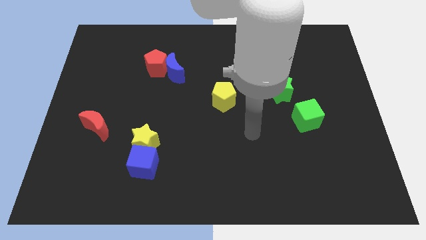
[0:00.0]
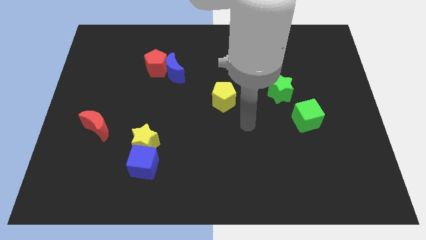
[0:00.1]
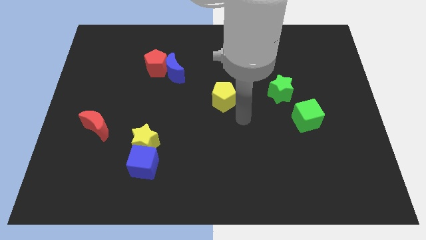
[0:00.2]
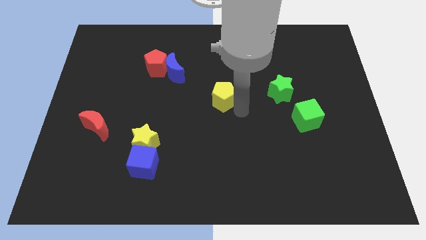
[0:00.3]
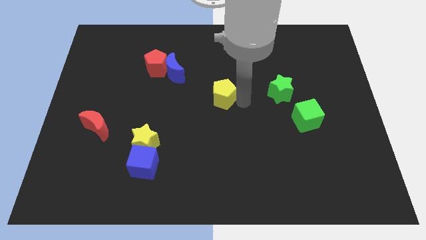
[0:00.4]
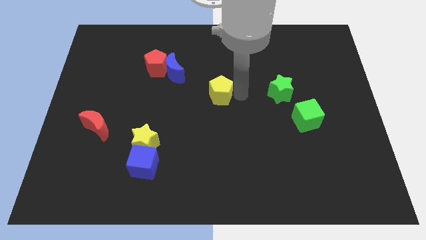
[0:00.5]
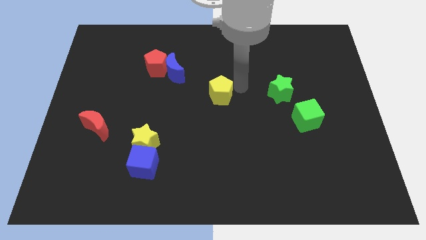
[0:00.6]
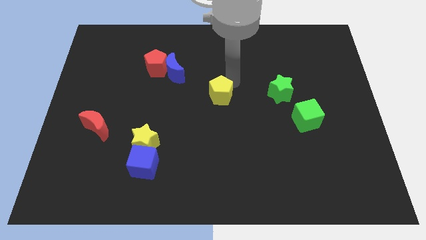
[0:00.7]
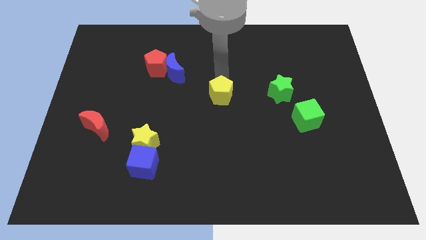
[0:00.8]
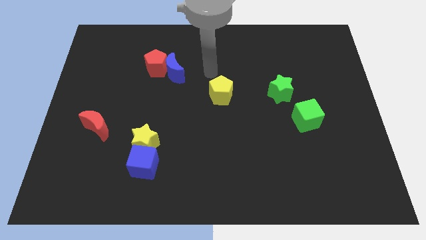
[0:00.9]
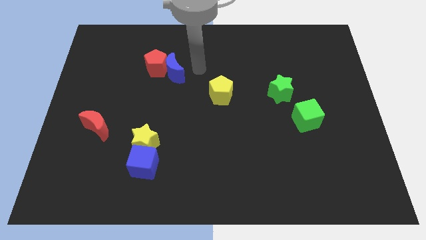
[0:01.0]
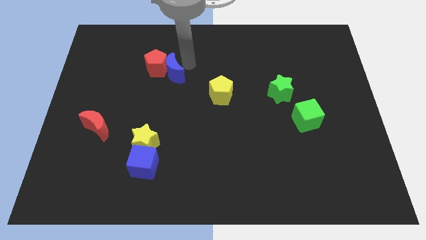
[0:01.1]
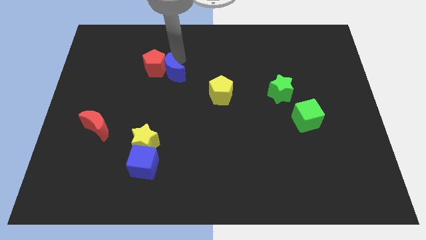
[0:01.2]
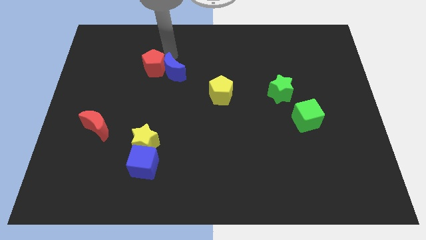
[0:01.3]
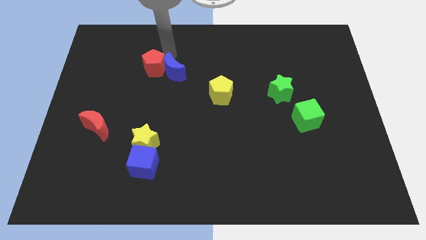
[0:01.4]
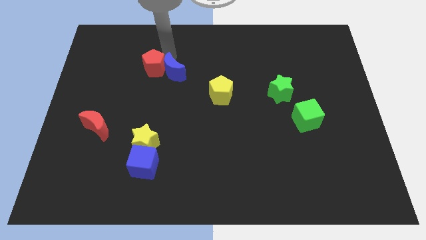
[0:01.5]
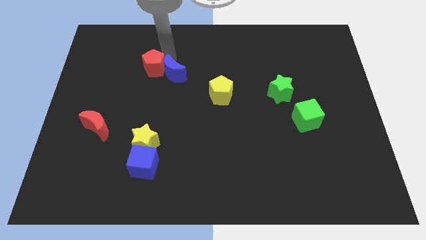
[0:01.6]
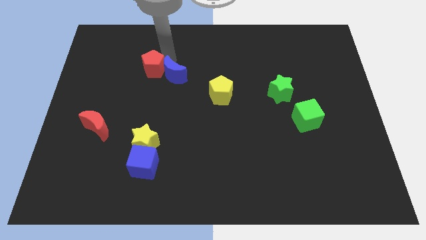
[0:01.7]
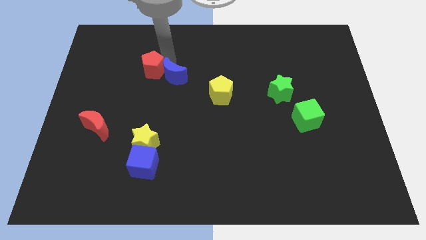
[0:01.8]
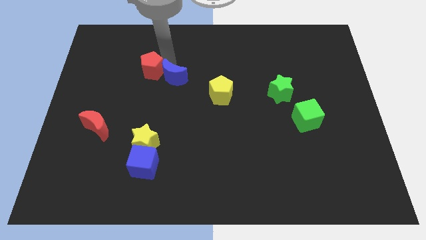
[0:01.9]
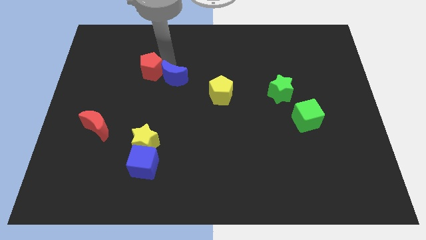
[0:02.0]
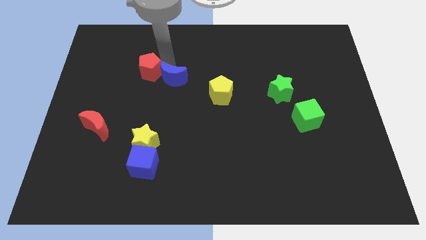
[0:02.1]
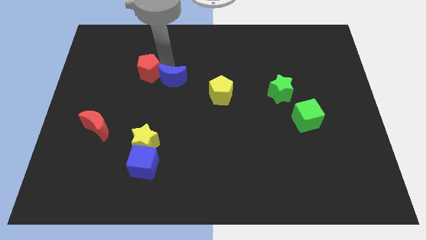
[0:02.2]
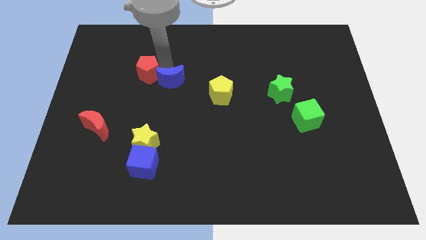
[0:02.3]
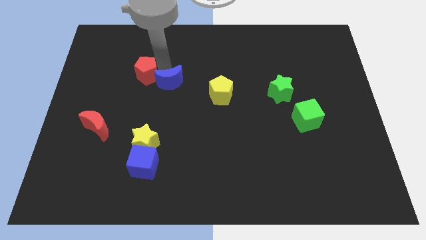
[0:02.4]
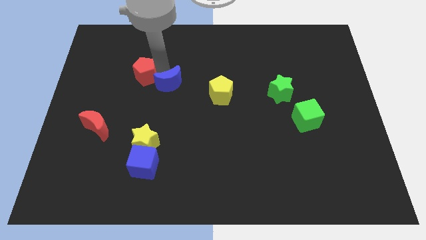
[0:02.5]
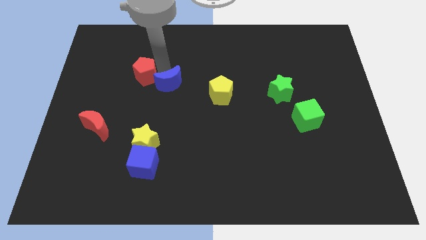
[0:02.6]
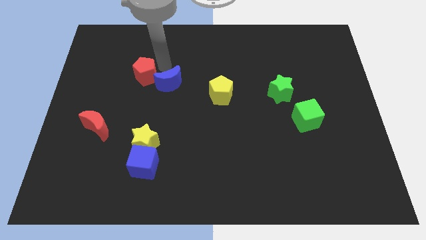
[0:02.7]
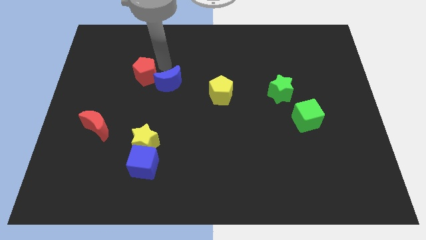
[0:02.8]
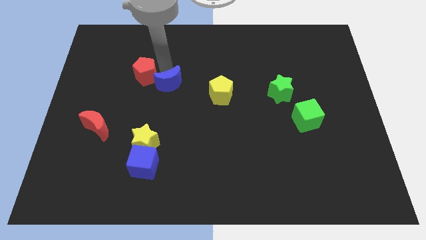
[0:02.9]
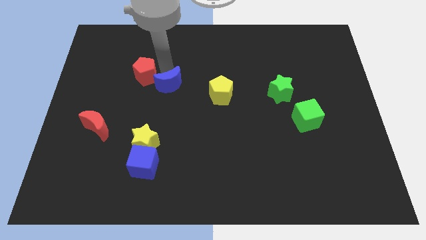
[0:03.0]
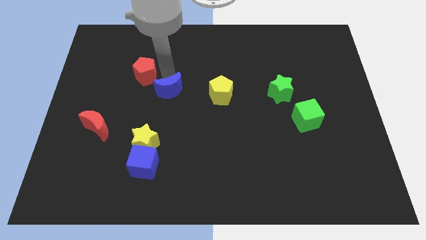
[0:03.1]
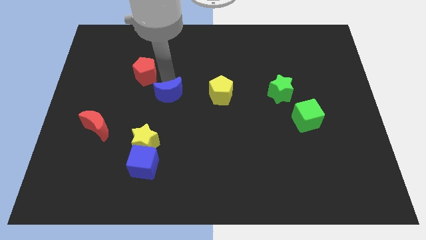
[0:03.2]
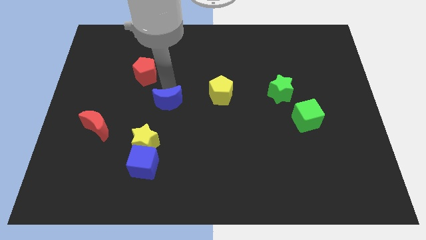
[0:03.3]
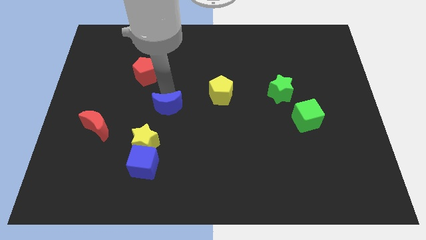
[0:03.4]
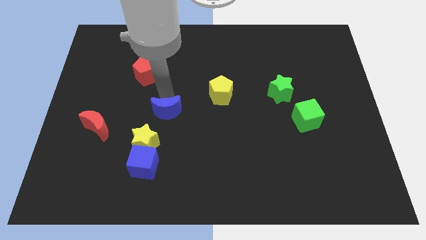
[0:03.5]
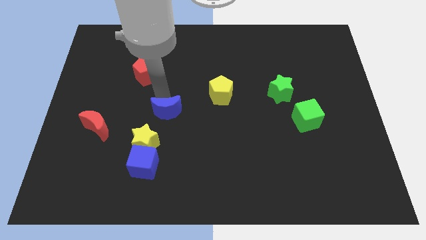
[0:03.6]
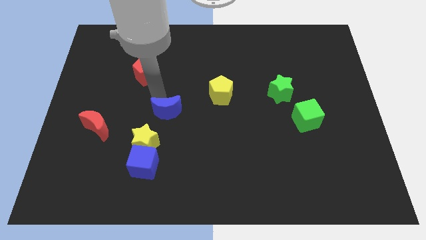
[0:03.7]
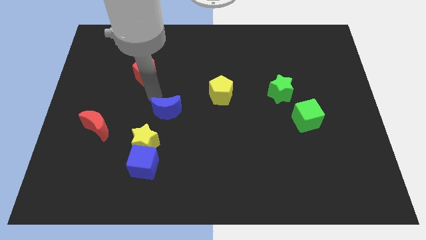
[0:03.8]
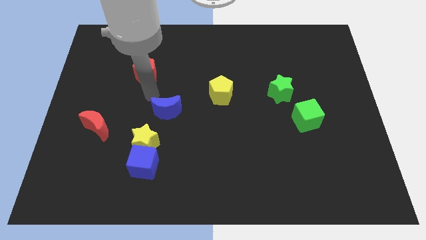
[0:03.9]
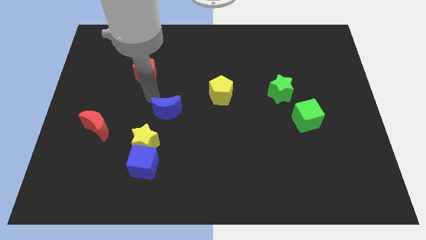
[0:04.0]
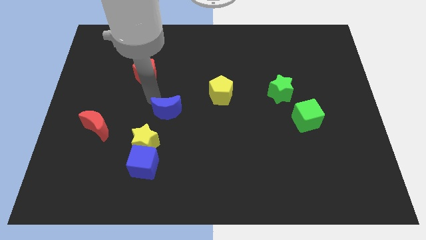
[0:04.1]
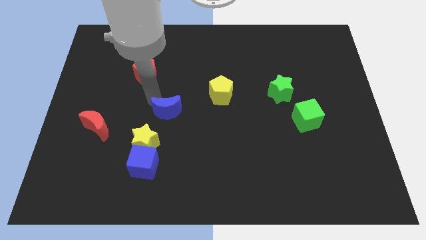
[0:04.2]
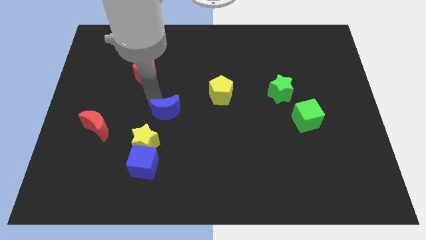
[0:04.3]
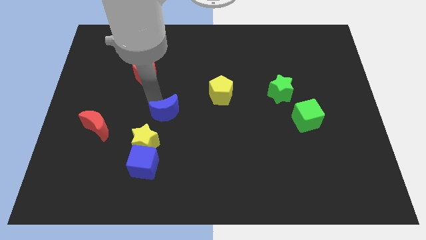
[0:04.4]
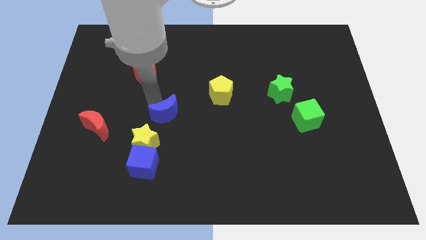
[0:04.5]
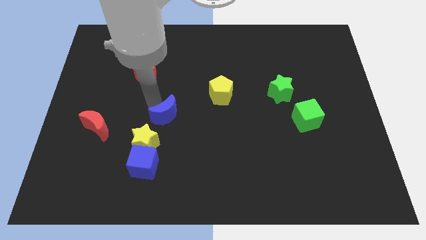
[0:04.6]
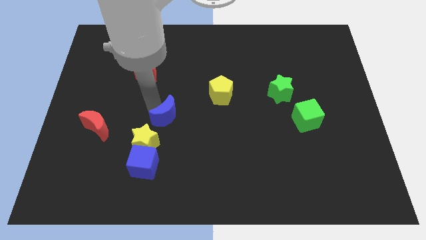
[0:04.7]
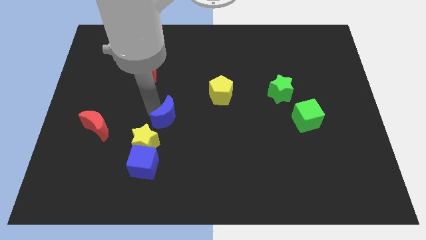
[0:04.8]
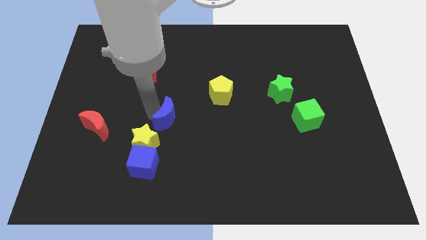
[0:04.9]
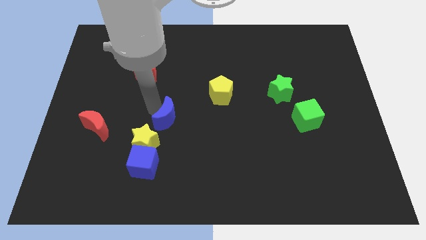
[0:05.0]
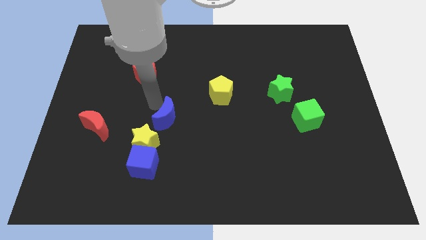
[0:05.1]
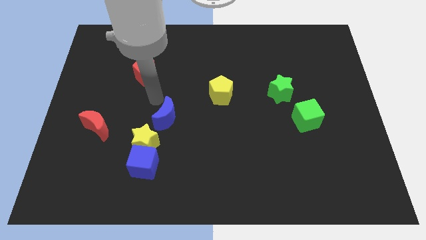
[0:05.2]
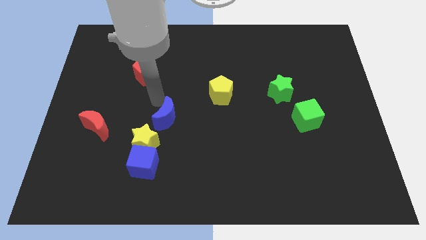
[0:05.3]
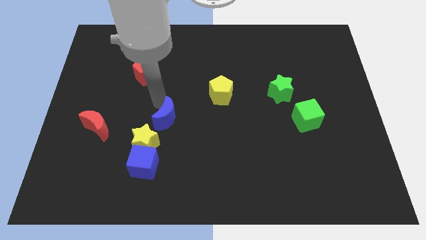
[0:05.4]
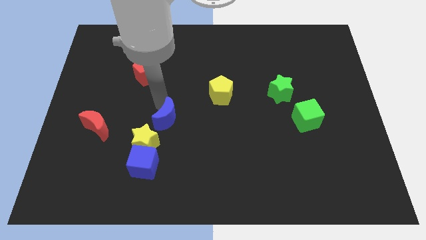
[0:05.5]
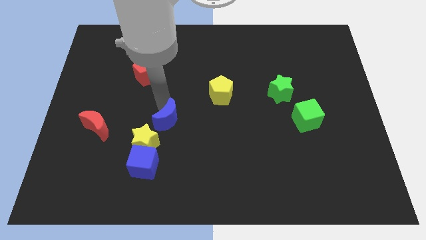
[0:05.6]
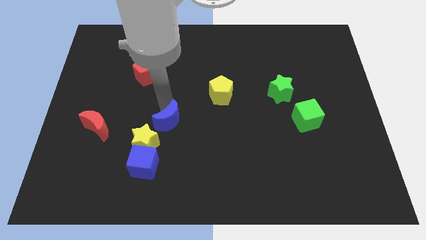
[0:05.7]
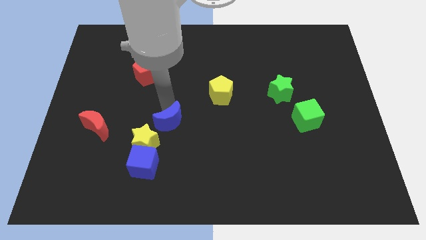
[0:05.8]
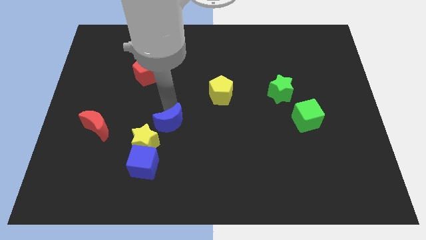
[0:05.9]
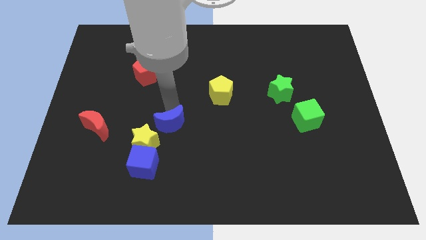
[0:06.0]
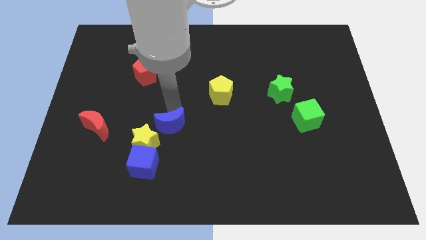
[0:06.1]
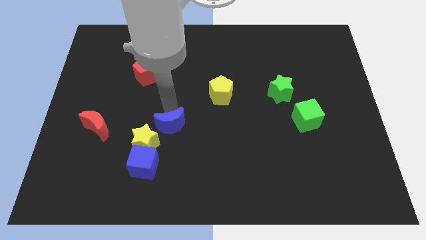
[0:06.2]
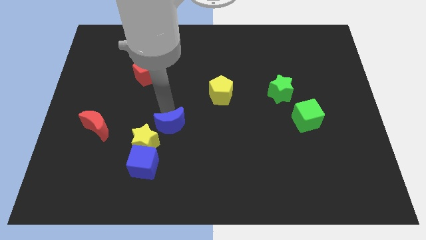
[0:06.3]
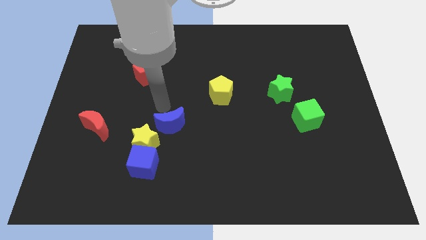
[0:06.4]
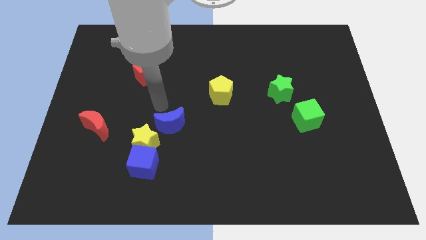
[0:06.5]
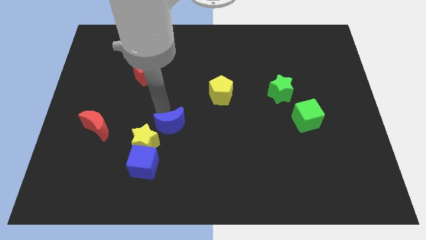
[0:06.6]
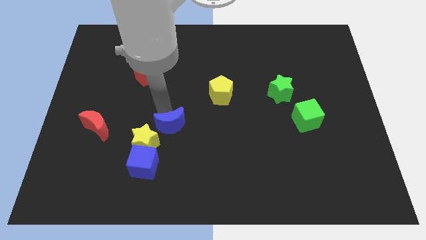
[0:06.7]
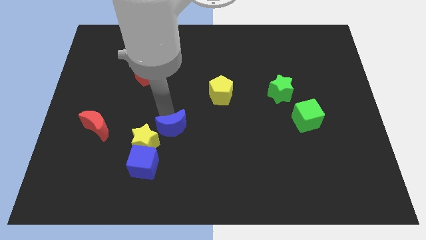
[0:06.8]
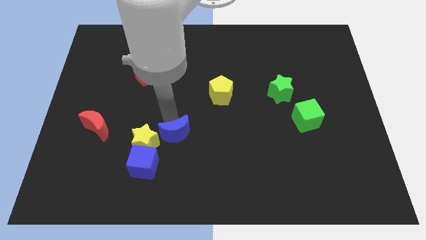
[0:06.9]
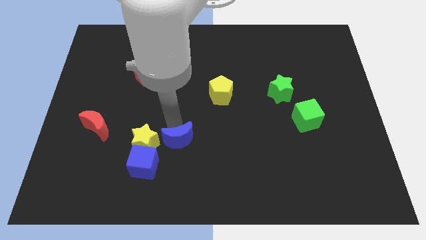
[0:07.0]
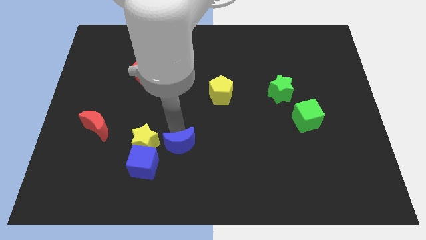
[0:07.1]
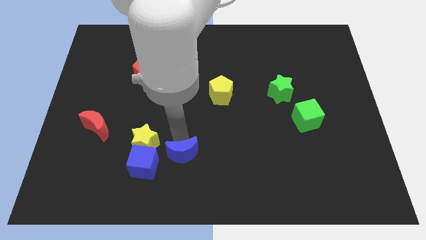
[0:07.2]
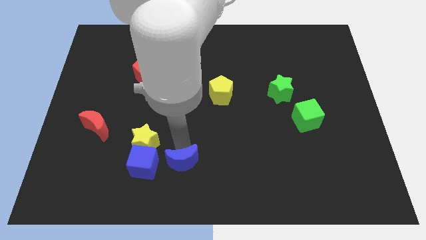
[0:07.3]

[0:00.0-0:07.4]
slide the blue moon to the bottom side
